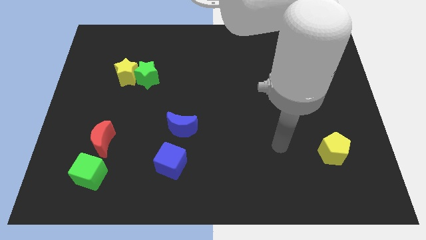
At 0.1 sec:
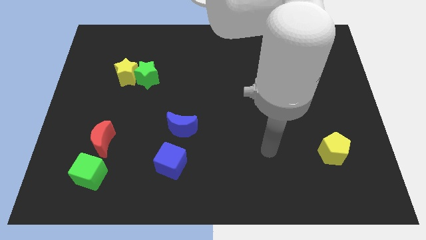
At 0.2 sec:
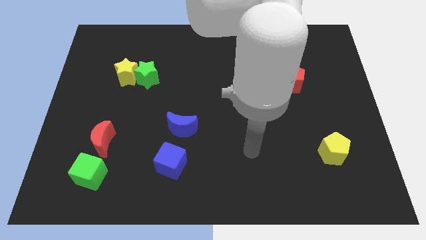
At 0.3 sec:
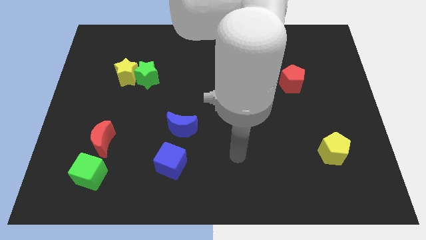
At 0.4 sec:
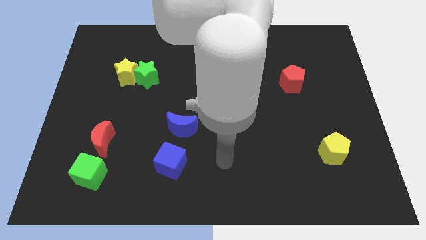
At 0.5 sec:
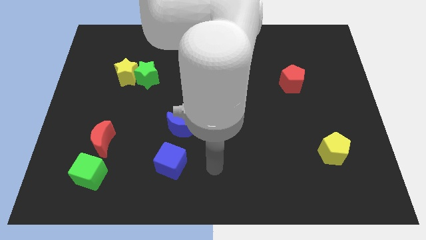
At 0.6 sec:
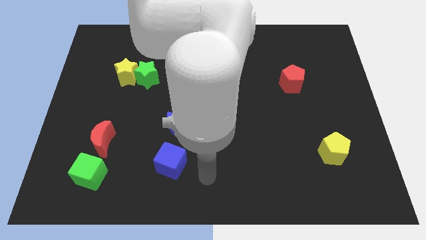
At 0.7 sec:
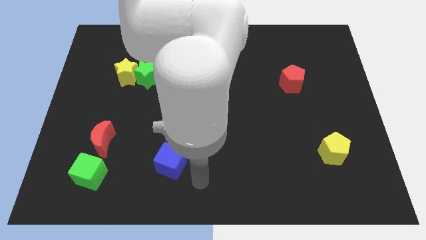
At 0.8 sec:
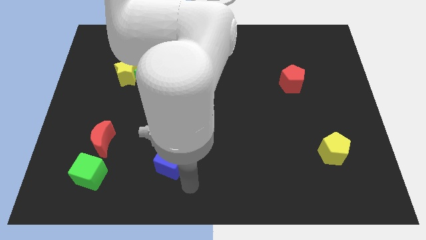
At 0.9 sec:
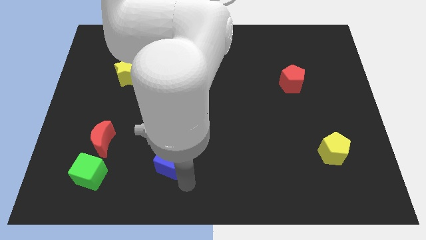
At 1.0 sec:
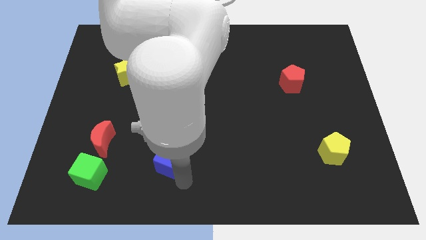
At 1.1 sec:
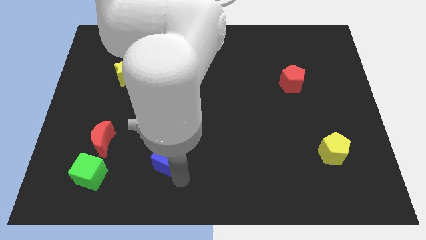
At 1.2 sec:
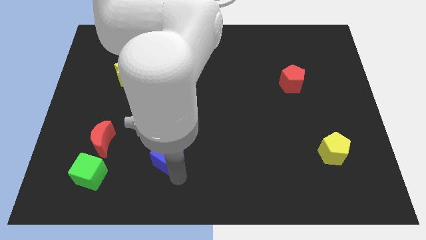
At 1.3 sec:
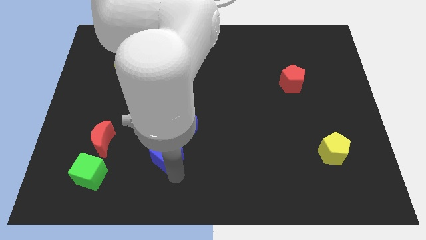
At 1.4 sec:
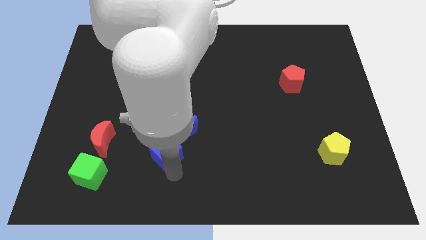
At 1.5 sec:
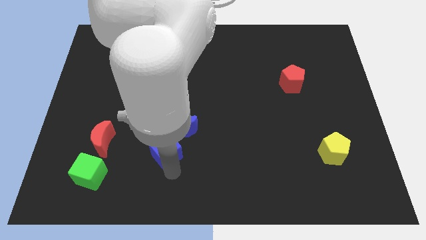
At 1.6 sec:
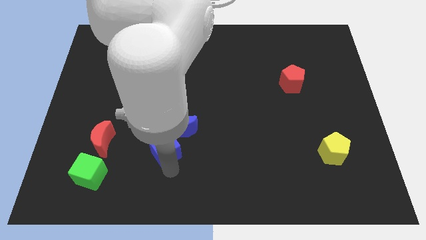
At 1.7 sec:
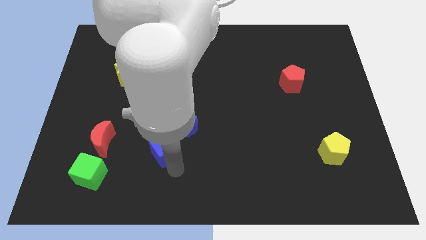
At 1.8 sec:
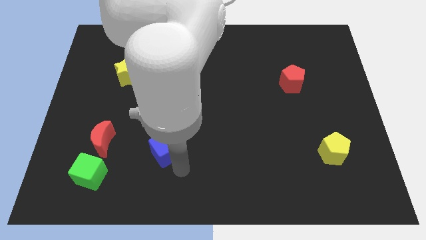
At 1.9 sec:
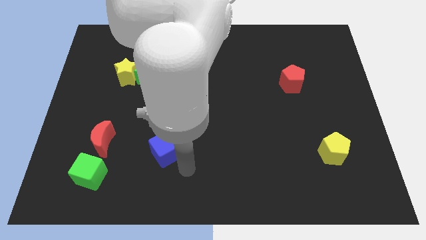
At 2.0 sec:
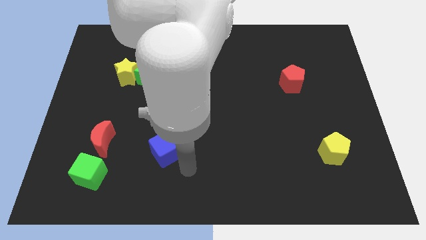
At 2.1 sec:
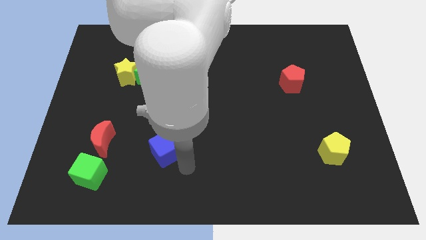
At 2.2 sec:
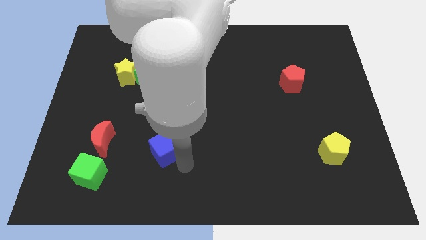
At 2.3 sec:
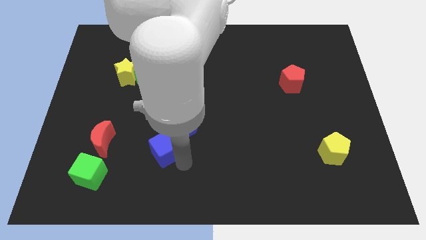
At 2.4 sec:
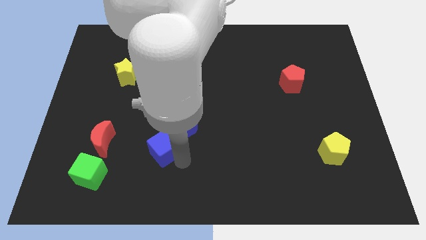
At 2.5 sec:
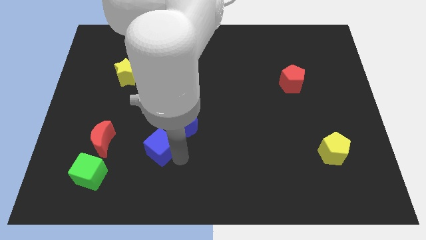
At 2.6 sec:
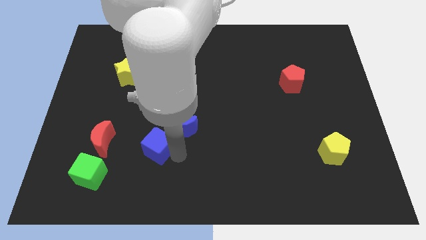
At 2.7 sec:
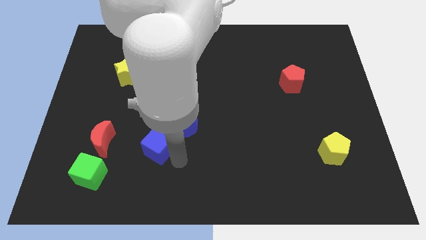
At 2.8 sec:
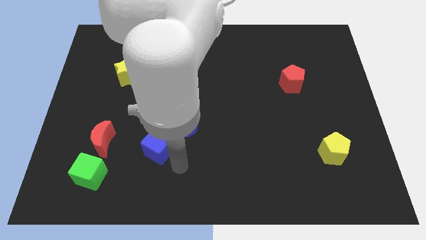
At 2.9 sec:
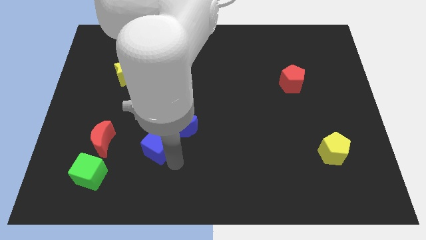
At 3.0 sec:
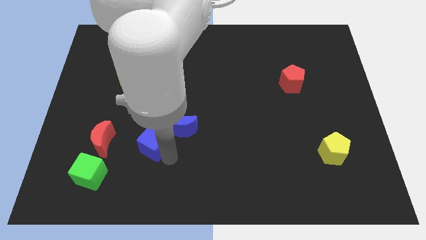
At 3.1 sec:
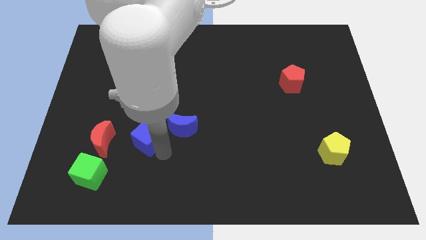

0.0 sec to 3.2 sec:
slightly move the blue cube diagonally upwards and to the left

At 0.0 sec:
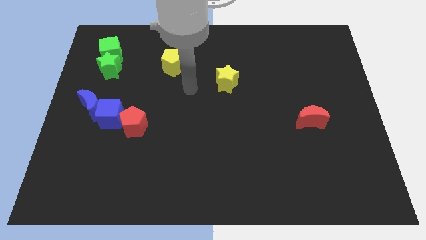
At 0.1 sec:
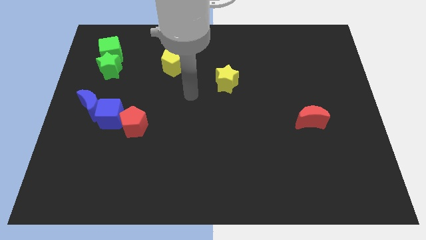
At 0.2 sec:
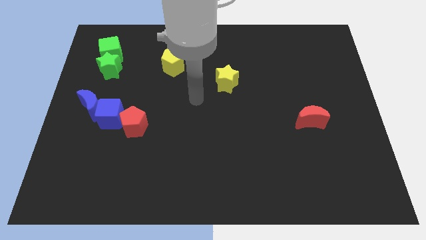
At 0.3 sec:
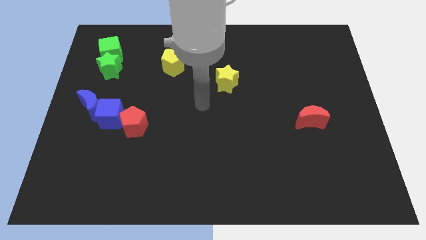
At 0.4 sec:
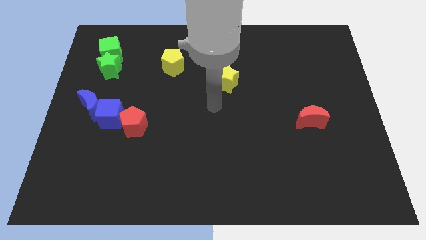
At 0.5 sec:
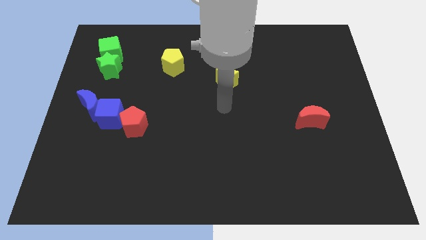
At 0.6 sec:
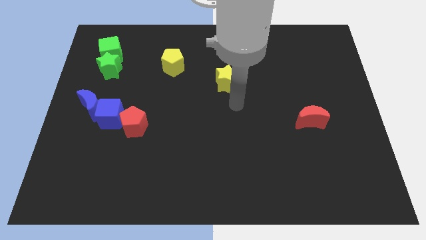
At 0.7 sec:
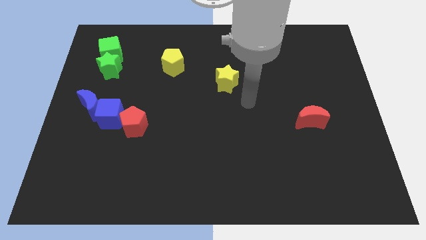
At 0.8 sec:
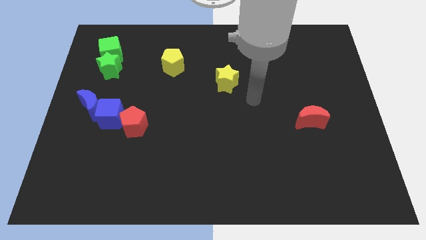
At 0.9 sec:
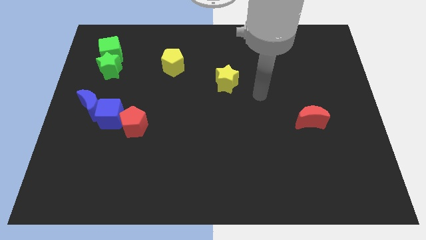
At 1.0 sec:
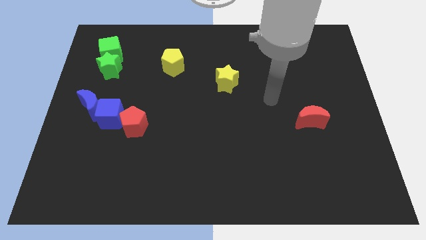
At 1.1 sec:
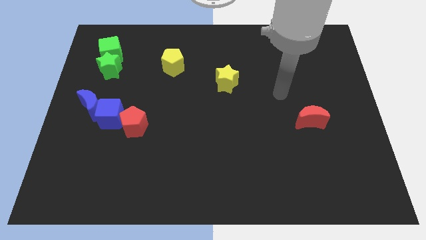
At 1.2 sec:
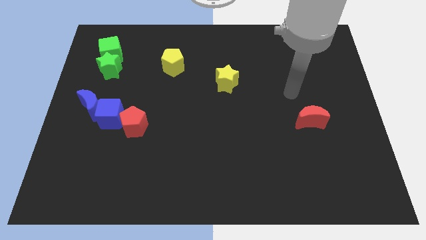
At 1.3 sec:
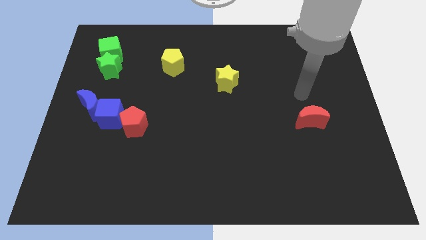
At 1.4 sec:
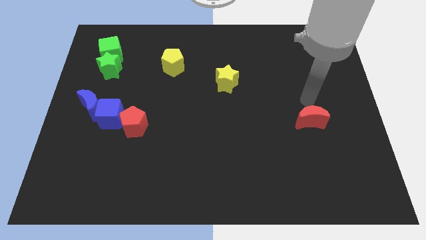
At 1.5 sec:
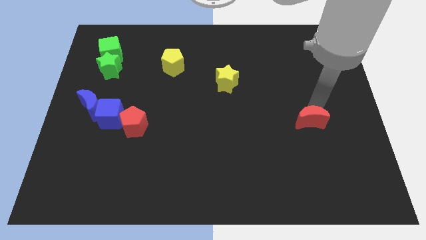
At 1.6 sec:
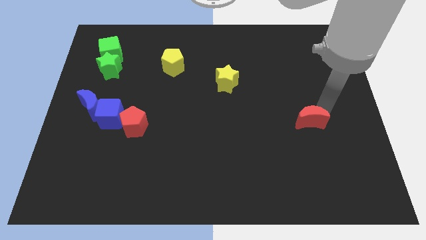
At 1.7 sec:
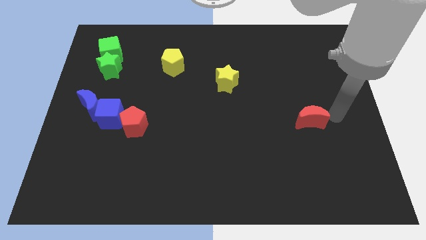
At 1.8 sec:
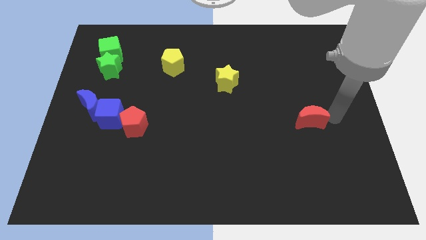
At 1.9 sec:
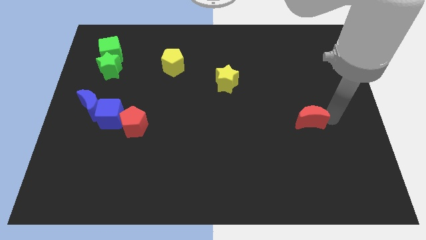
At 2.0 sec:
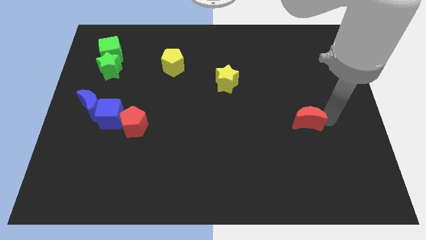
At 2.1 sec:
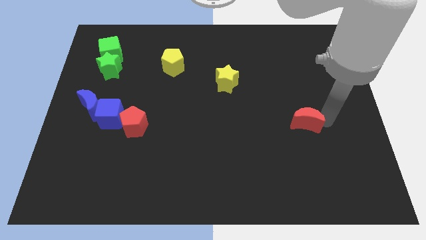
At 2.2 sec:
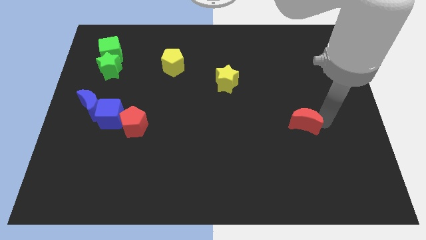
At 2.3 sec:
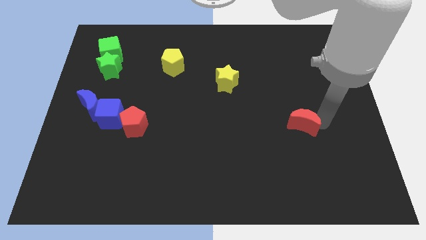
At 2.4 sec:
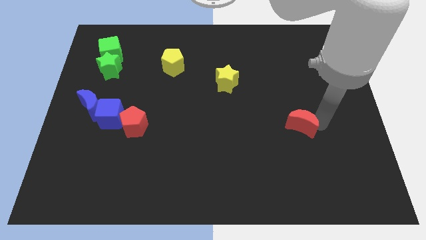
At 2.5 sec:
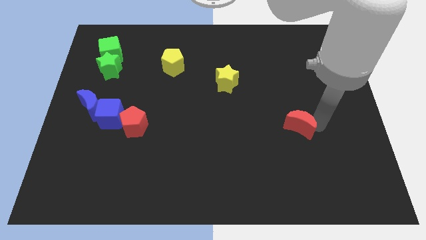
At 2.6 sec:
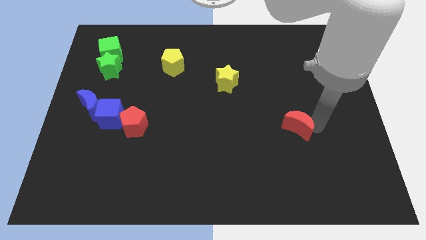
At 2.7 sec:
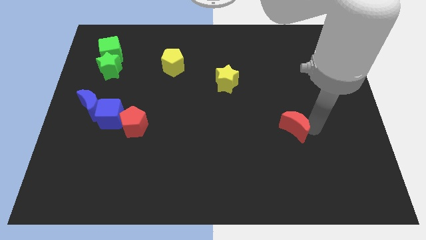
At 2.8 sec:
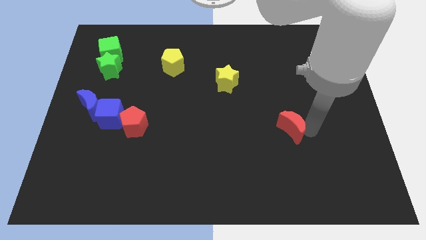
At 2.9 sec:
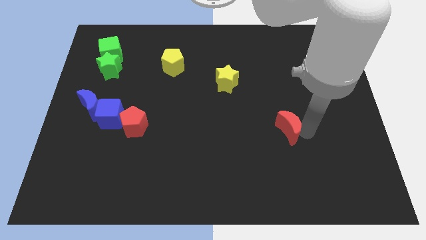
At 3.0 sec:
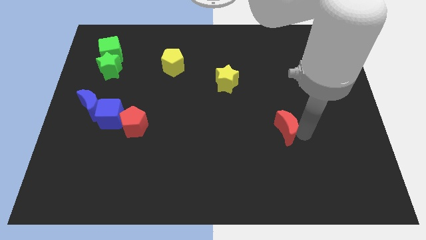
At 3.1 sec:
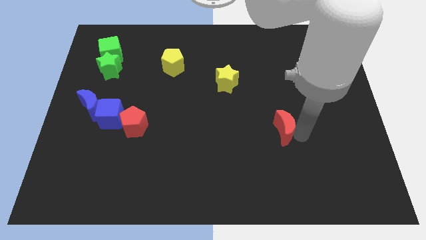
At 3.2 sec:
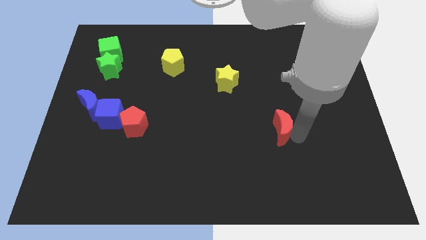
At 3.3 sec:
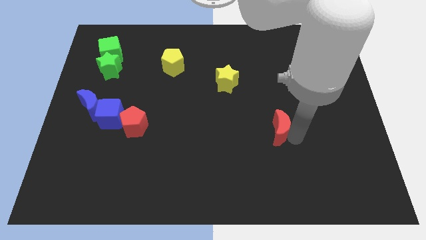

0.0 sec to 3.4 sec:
push the red moon to the left a bit

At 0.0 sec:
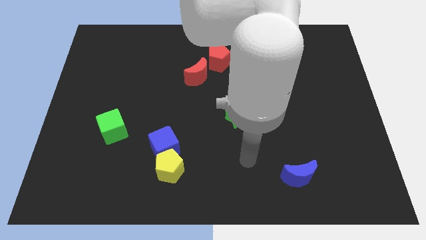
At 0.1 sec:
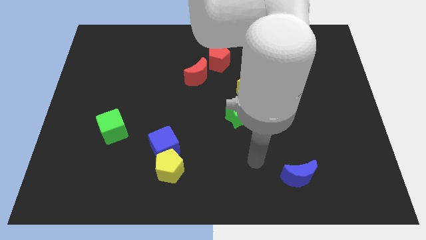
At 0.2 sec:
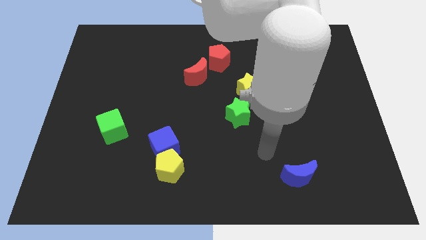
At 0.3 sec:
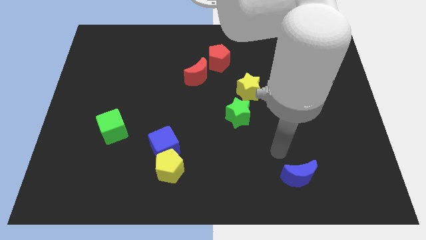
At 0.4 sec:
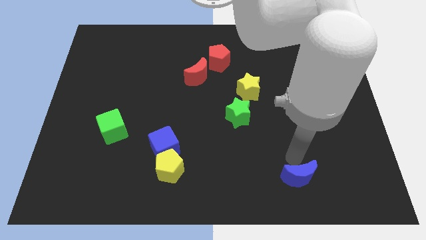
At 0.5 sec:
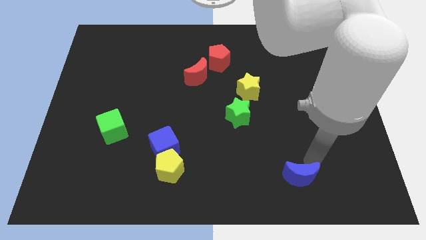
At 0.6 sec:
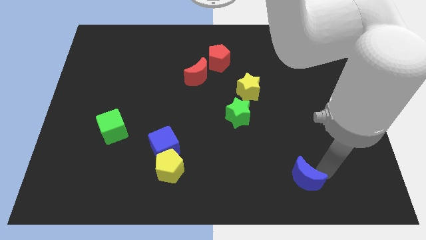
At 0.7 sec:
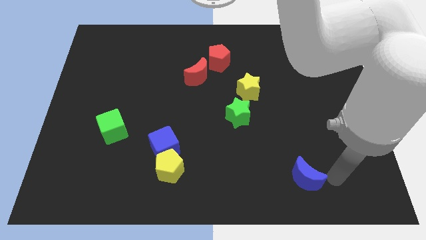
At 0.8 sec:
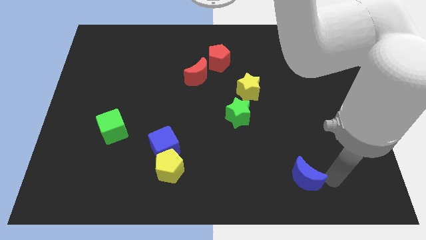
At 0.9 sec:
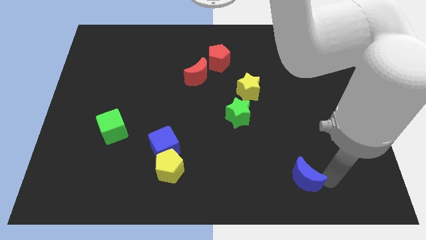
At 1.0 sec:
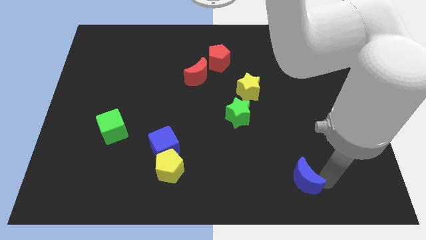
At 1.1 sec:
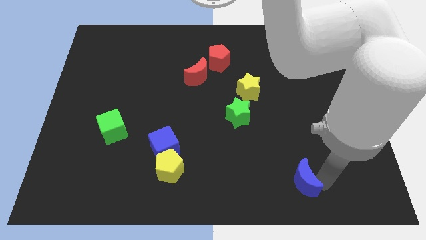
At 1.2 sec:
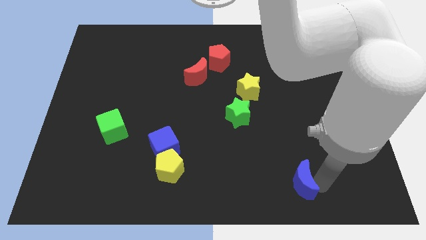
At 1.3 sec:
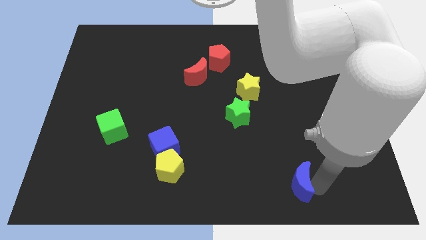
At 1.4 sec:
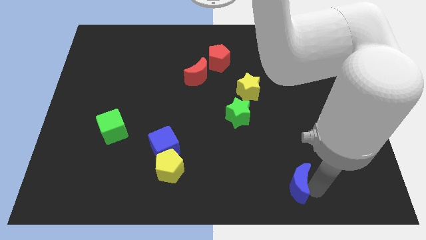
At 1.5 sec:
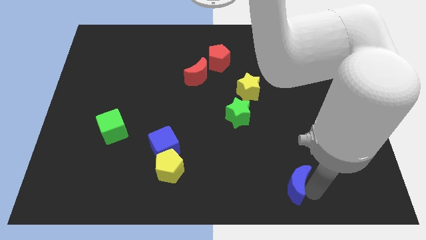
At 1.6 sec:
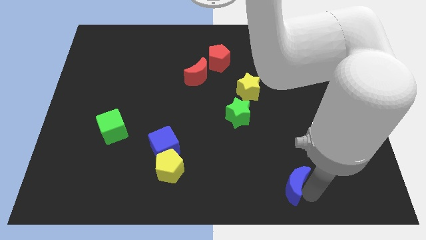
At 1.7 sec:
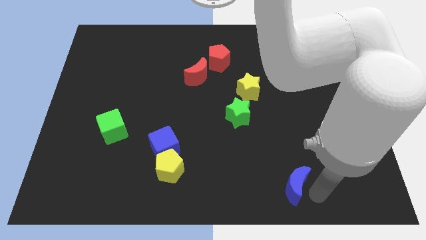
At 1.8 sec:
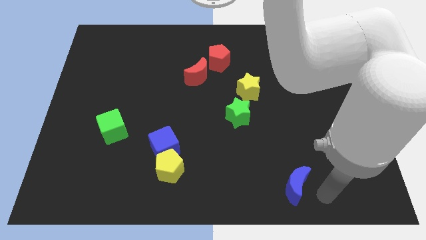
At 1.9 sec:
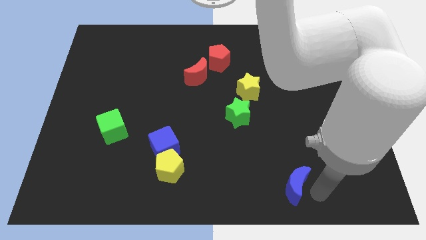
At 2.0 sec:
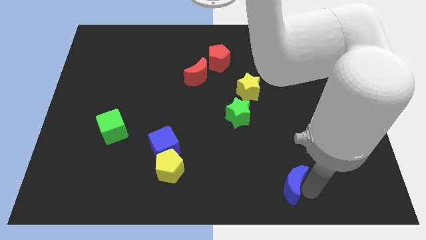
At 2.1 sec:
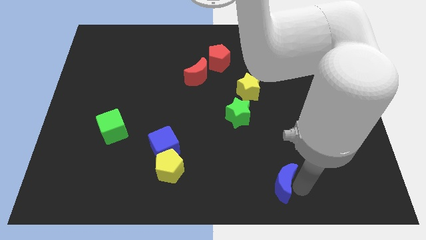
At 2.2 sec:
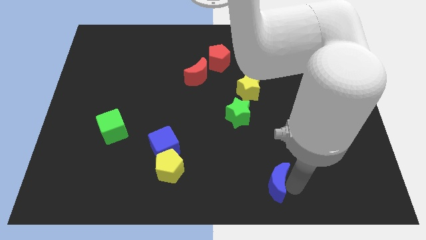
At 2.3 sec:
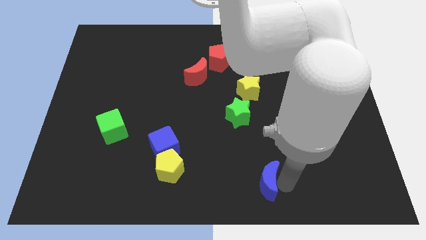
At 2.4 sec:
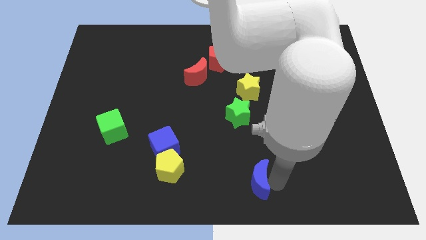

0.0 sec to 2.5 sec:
slightly push the blue moon to the left
